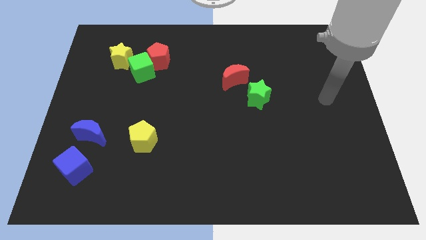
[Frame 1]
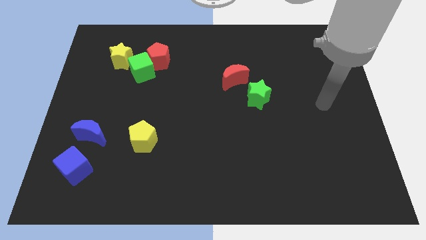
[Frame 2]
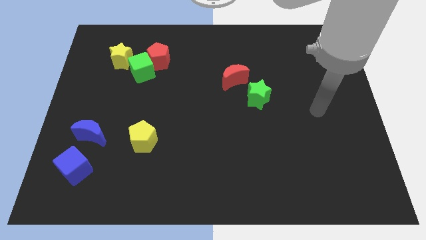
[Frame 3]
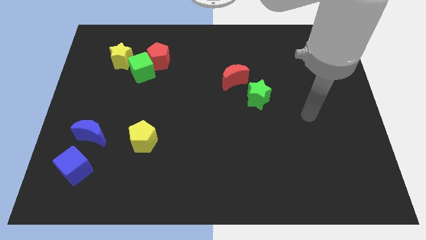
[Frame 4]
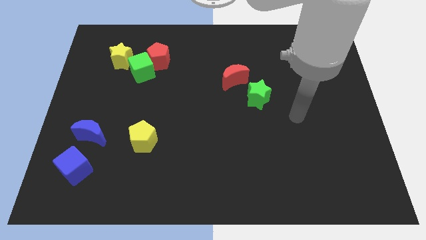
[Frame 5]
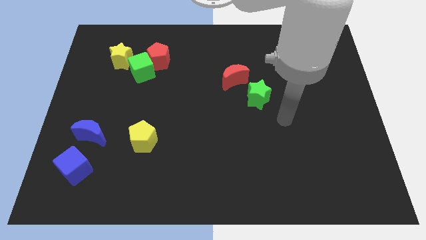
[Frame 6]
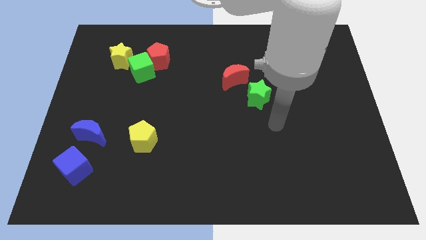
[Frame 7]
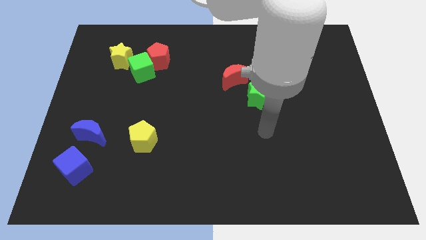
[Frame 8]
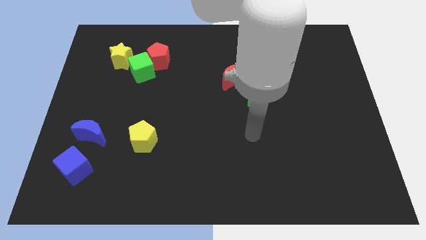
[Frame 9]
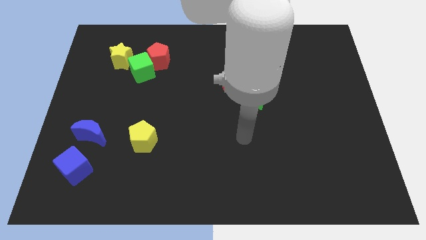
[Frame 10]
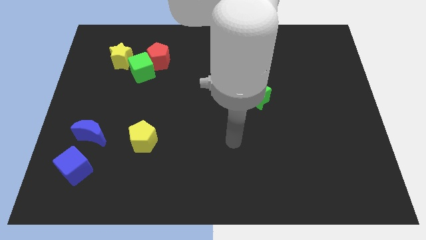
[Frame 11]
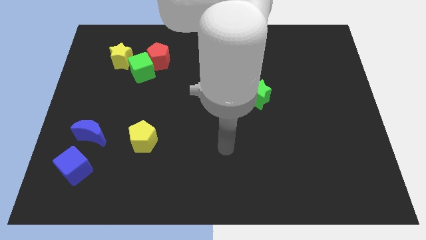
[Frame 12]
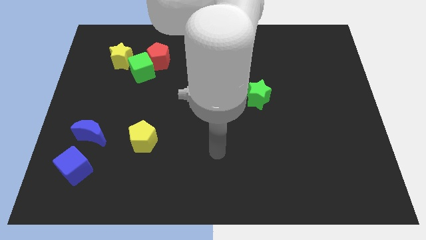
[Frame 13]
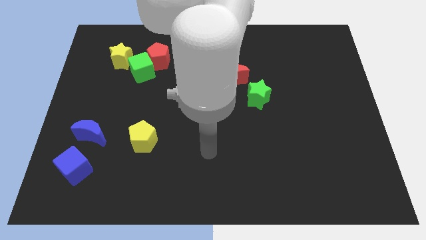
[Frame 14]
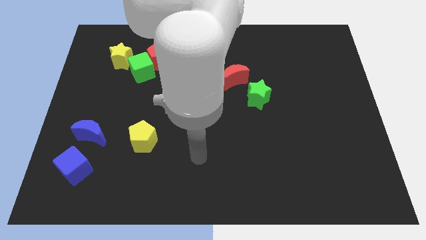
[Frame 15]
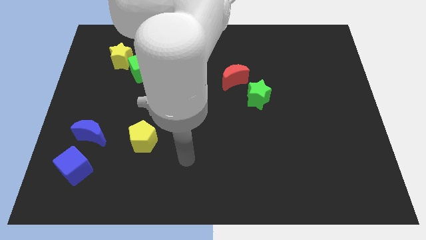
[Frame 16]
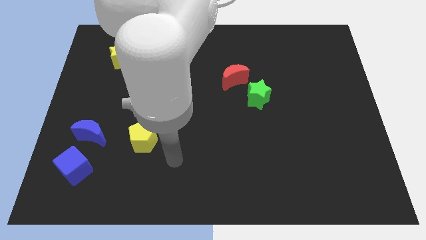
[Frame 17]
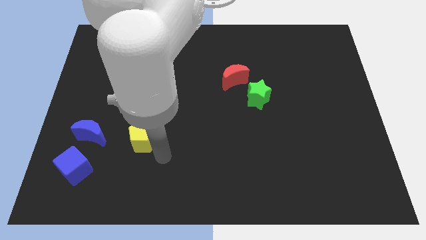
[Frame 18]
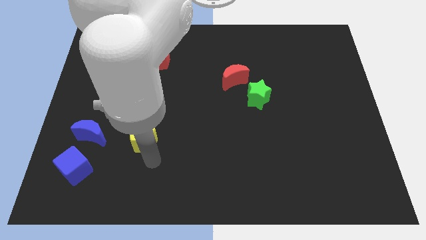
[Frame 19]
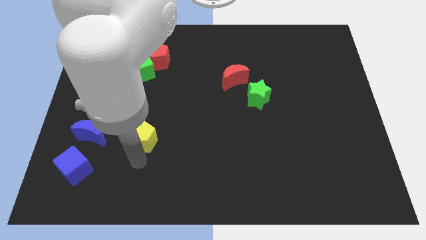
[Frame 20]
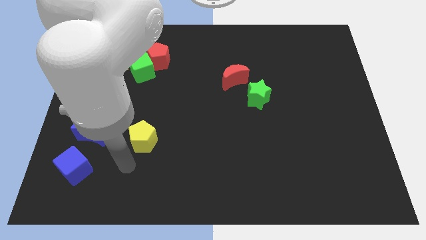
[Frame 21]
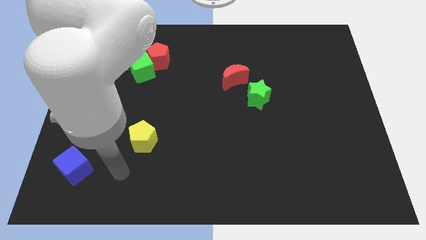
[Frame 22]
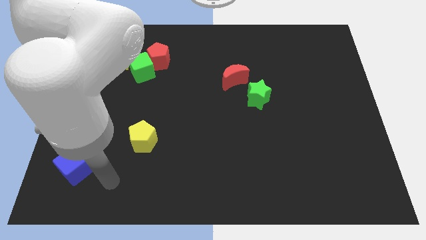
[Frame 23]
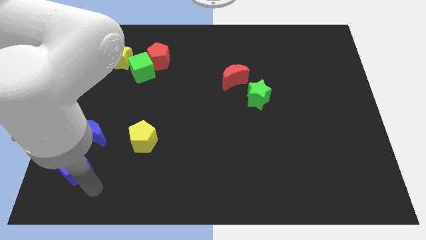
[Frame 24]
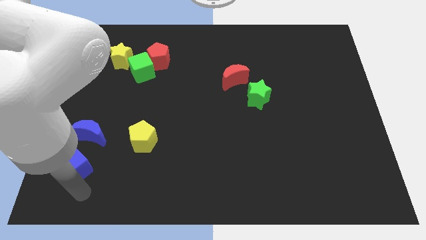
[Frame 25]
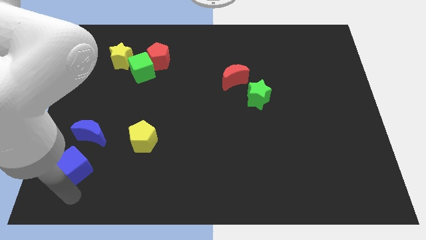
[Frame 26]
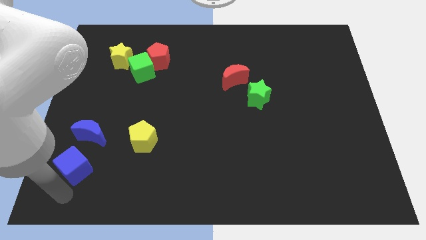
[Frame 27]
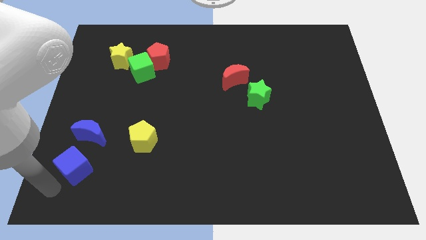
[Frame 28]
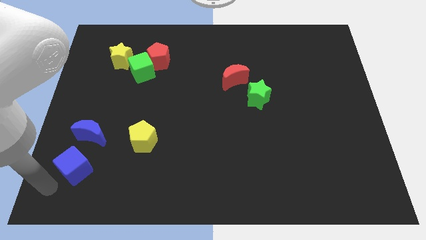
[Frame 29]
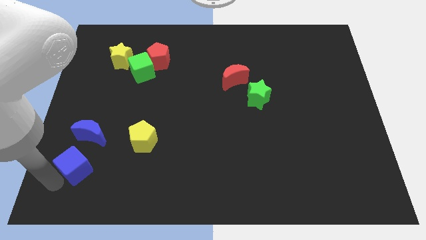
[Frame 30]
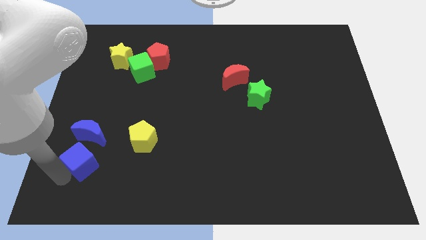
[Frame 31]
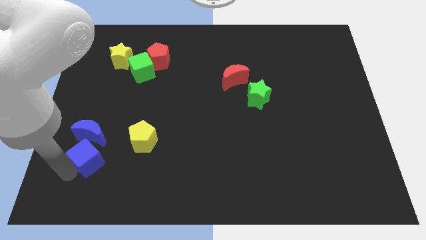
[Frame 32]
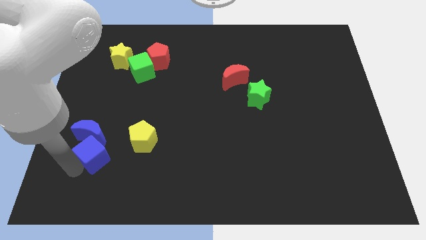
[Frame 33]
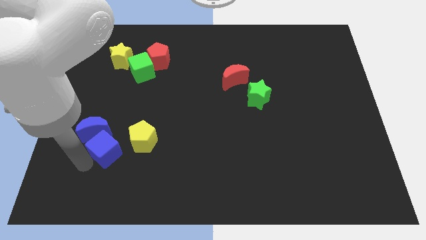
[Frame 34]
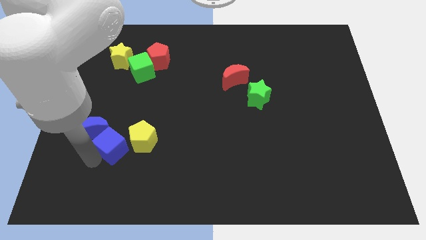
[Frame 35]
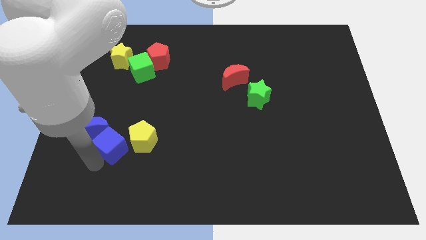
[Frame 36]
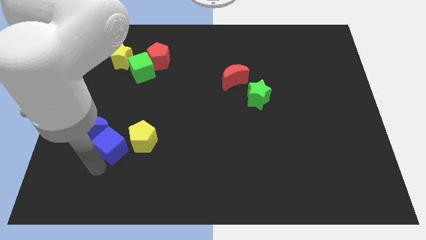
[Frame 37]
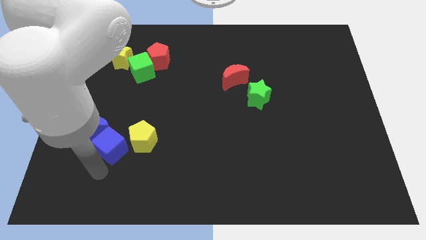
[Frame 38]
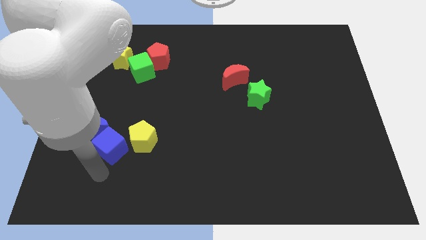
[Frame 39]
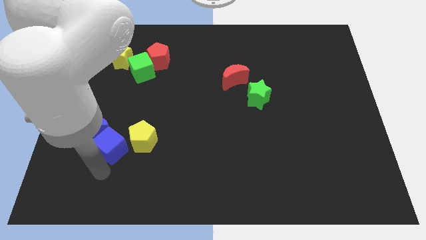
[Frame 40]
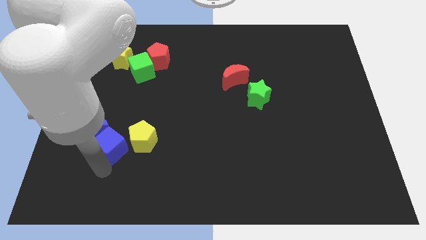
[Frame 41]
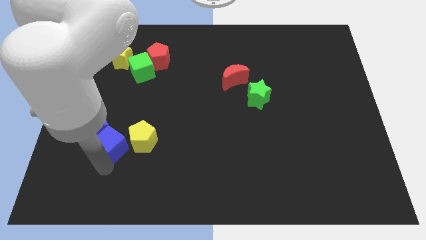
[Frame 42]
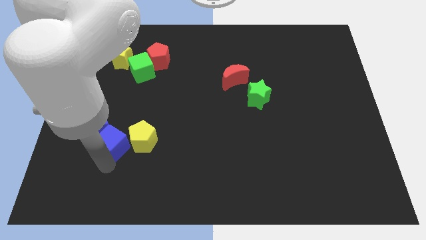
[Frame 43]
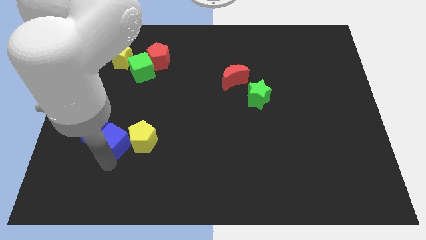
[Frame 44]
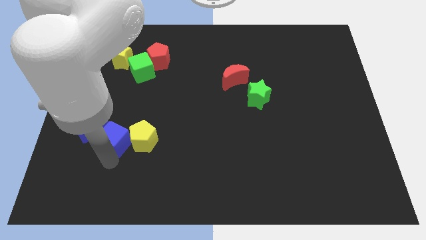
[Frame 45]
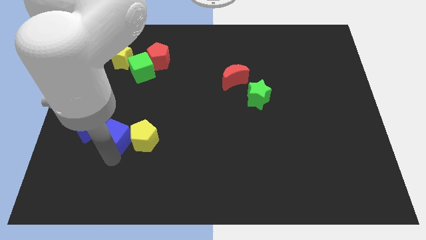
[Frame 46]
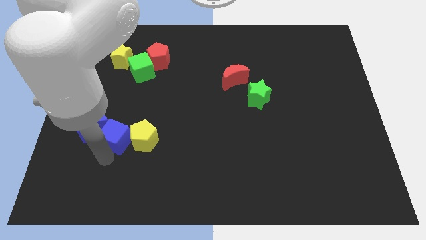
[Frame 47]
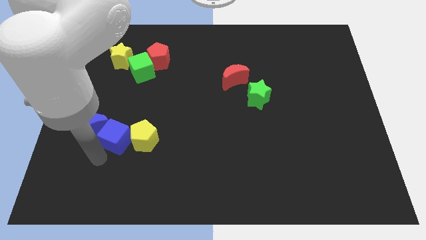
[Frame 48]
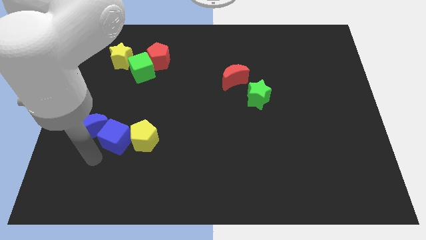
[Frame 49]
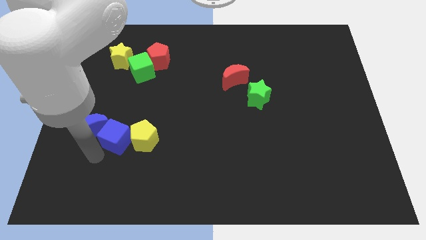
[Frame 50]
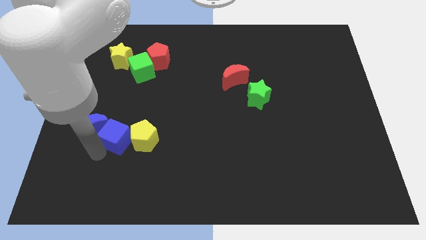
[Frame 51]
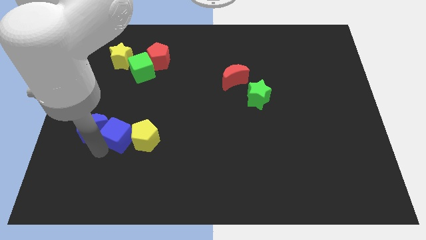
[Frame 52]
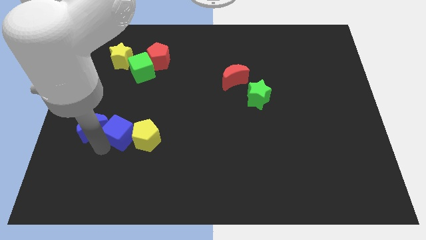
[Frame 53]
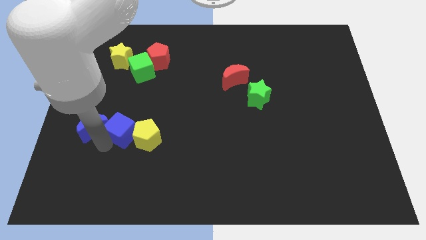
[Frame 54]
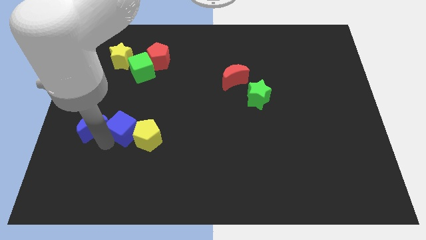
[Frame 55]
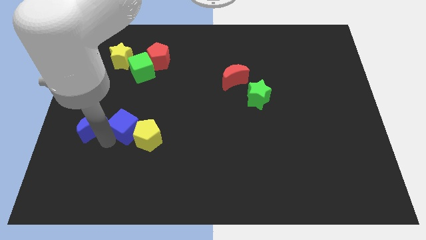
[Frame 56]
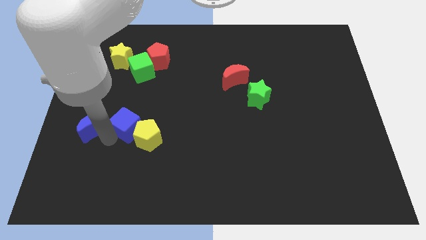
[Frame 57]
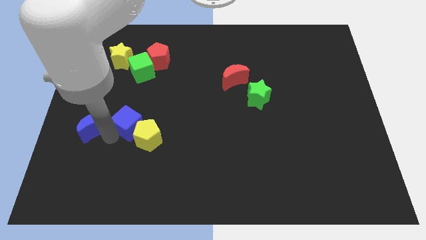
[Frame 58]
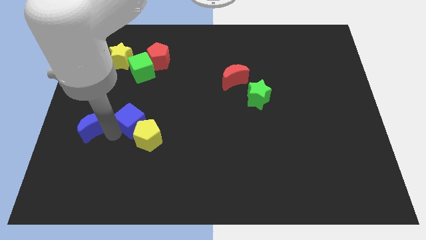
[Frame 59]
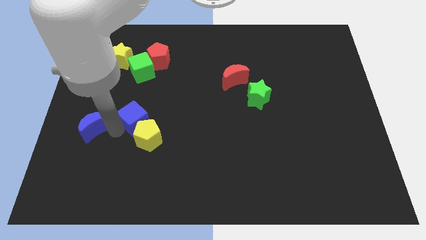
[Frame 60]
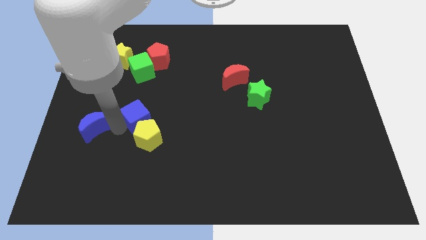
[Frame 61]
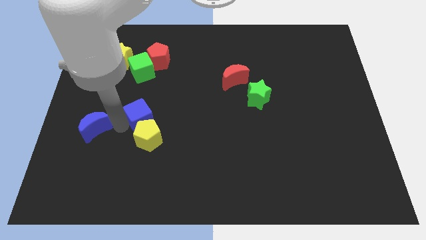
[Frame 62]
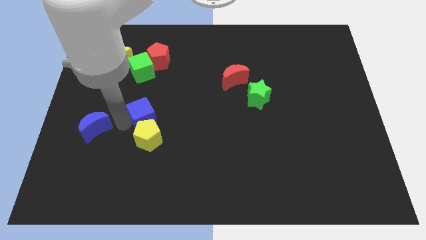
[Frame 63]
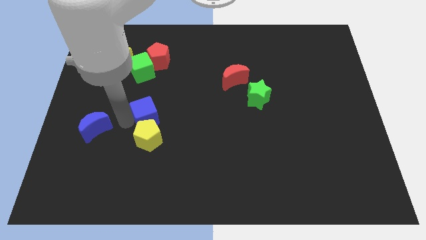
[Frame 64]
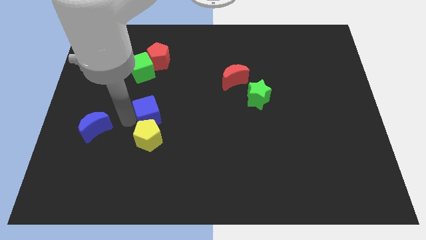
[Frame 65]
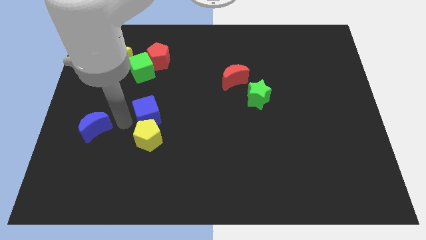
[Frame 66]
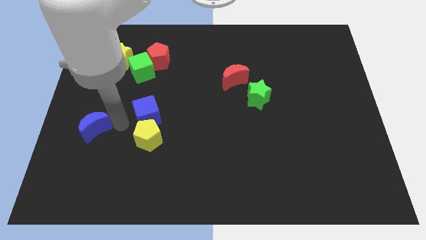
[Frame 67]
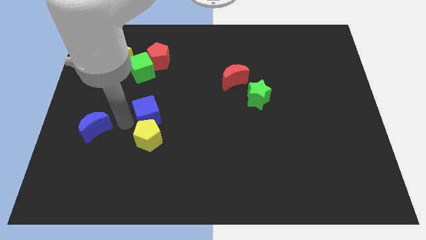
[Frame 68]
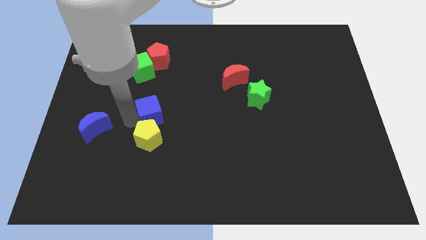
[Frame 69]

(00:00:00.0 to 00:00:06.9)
slide the blue cube upwards and then to the right

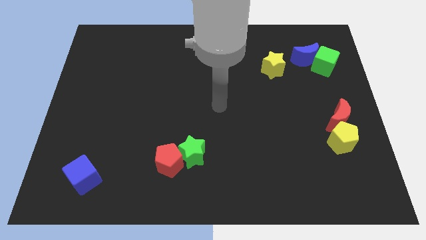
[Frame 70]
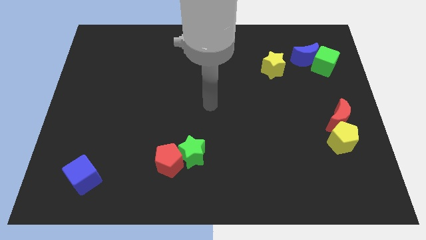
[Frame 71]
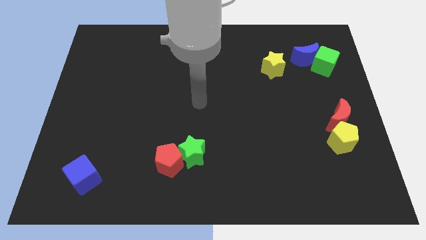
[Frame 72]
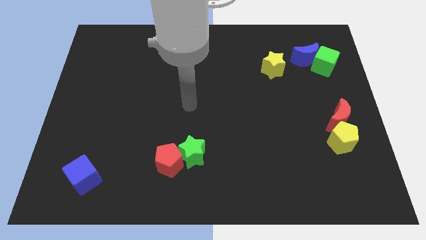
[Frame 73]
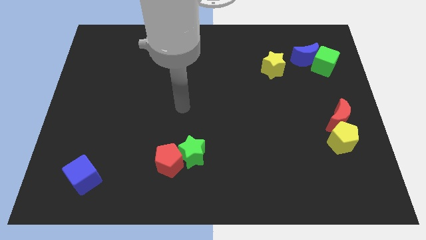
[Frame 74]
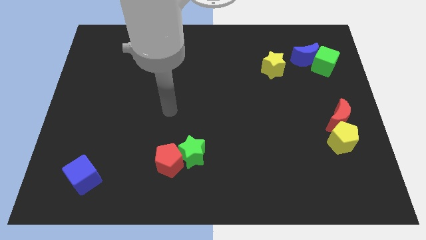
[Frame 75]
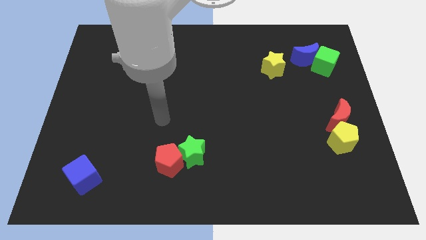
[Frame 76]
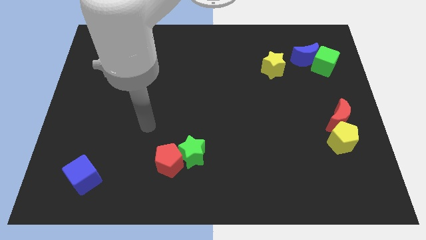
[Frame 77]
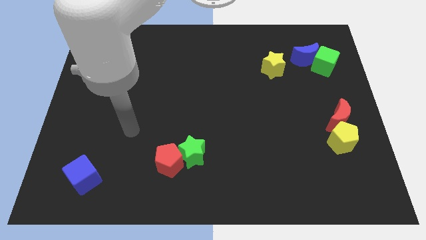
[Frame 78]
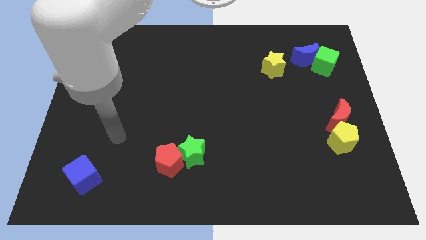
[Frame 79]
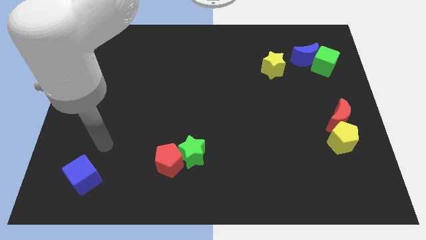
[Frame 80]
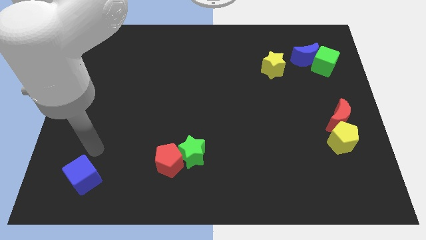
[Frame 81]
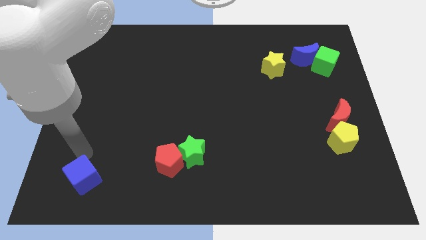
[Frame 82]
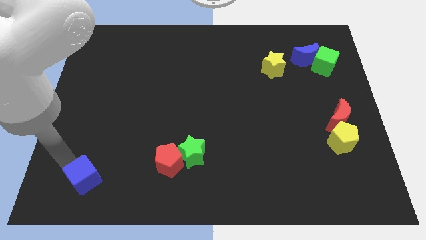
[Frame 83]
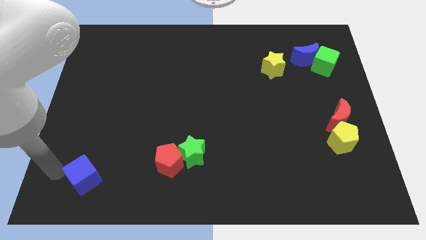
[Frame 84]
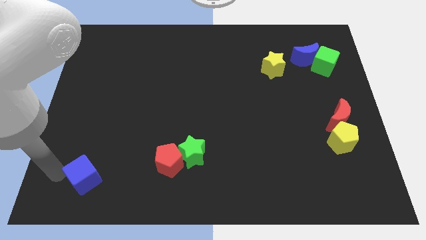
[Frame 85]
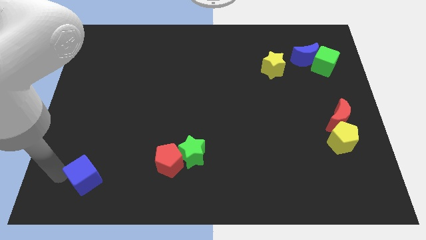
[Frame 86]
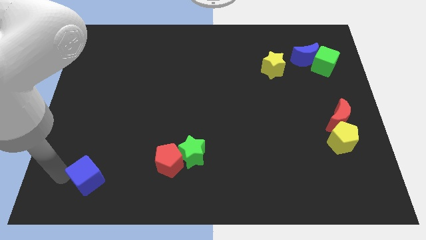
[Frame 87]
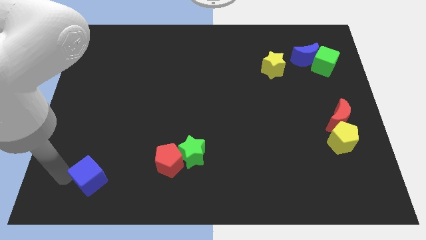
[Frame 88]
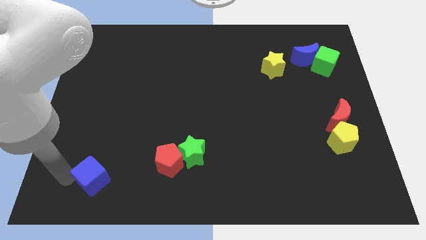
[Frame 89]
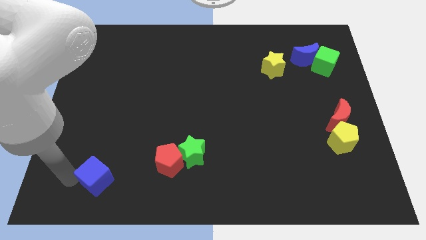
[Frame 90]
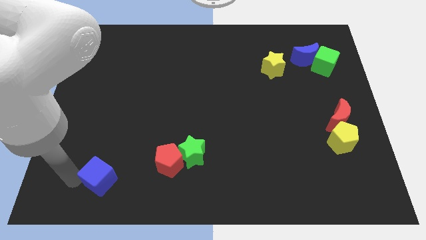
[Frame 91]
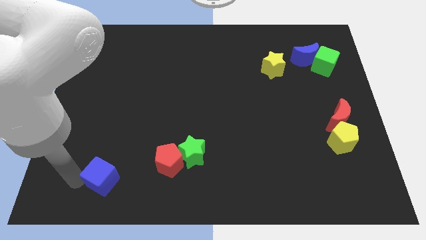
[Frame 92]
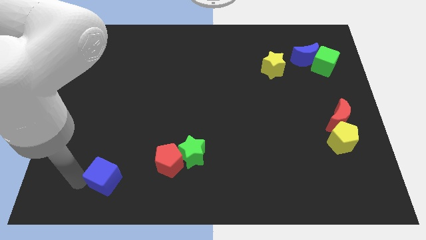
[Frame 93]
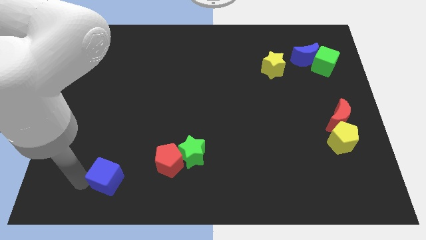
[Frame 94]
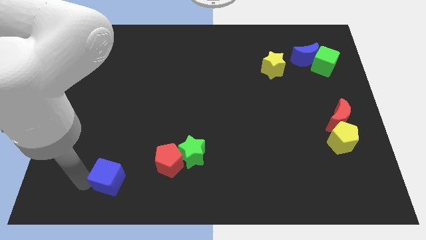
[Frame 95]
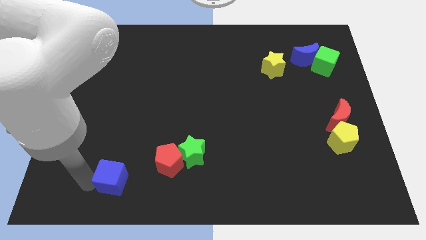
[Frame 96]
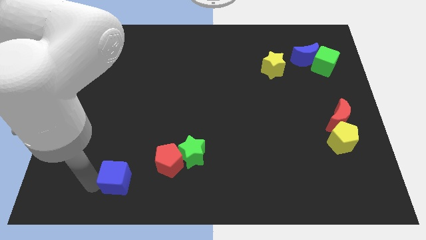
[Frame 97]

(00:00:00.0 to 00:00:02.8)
slightly slide the blue cube right
